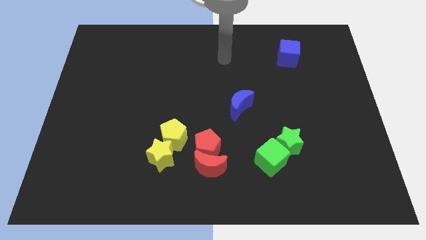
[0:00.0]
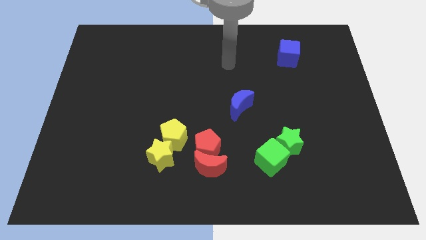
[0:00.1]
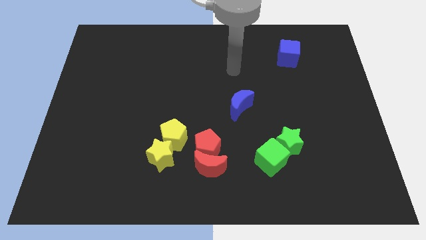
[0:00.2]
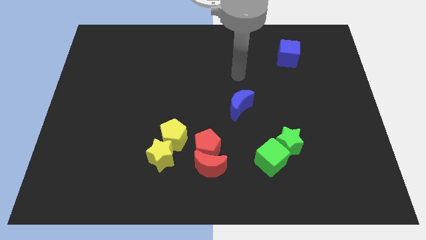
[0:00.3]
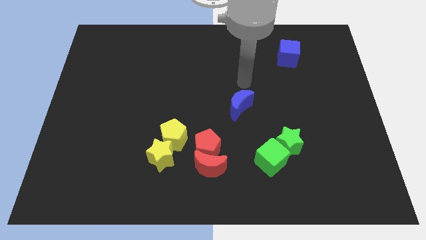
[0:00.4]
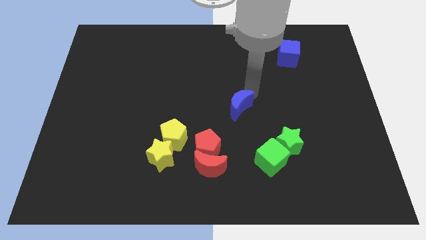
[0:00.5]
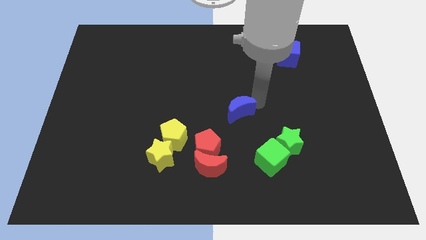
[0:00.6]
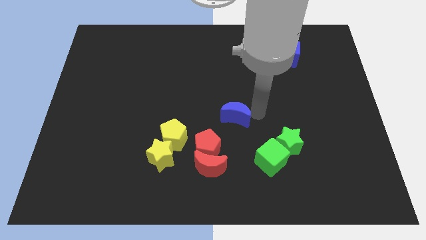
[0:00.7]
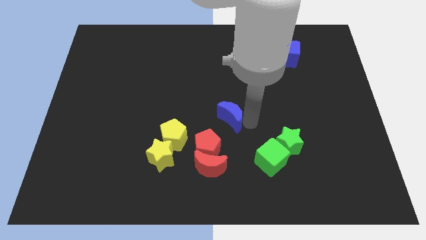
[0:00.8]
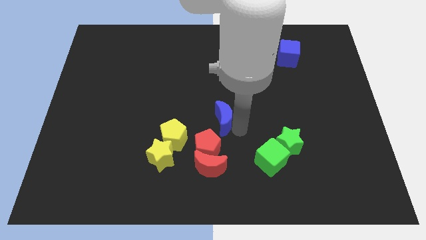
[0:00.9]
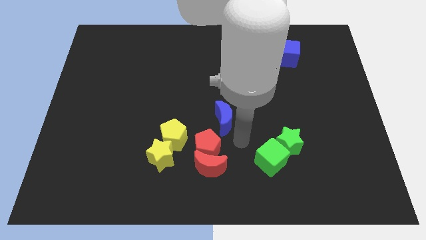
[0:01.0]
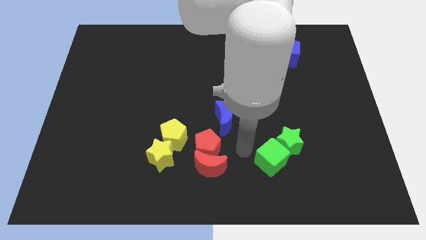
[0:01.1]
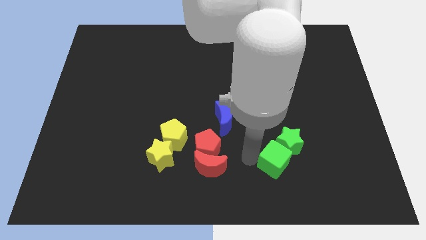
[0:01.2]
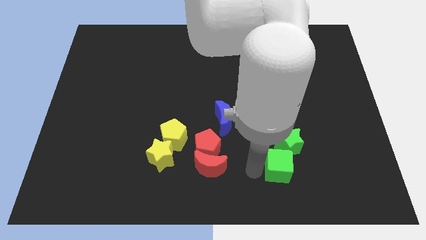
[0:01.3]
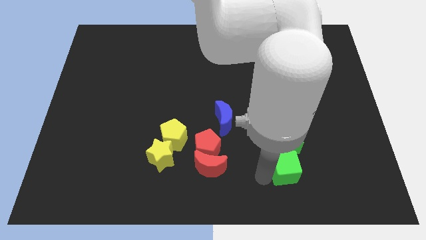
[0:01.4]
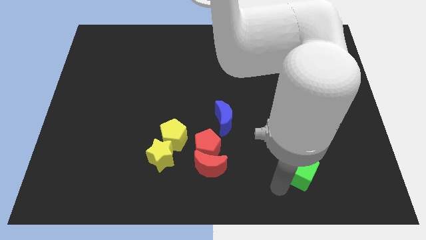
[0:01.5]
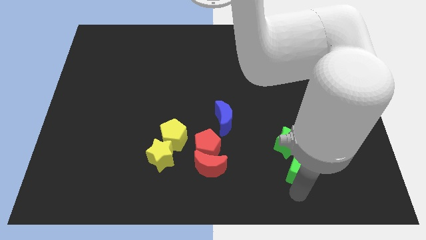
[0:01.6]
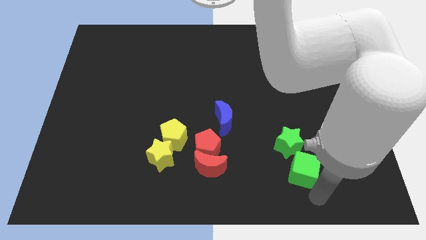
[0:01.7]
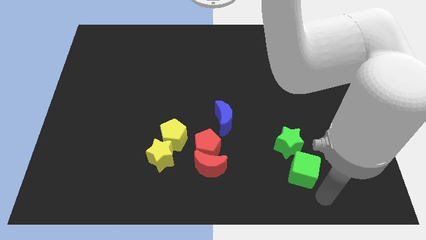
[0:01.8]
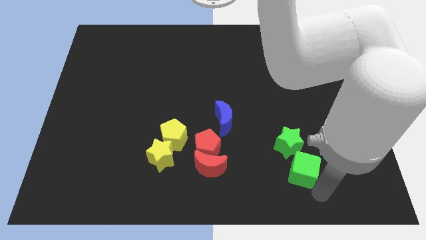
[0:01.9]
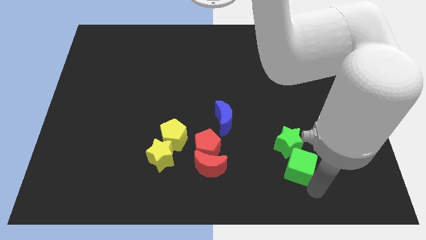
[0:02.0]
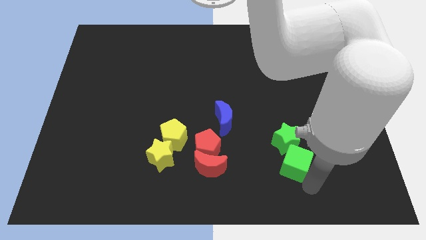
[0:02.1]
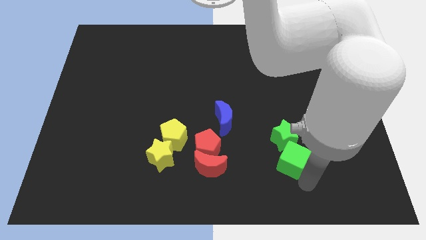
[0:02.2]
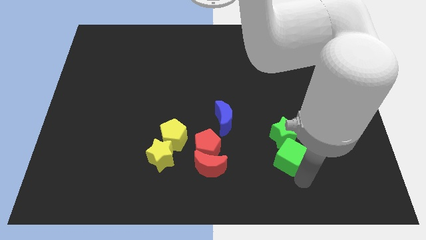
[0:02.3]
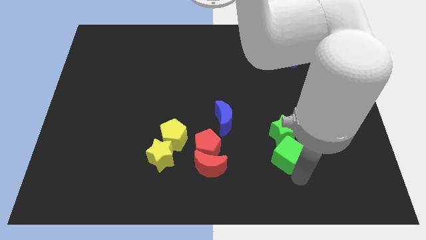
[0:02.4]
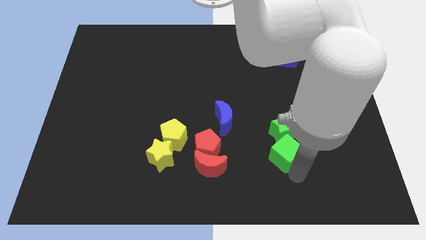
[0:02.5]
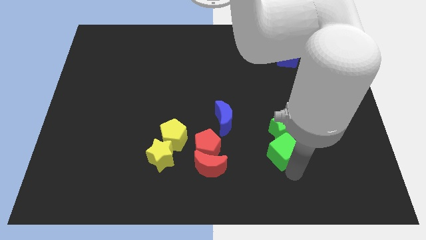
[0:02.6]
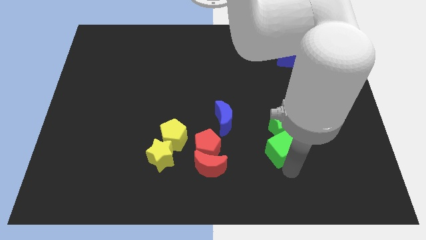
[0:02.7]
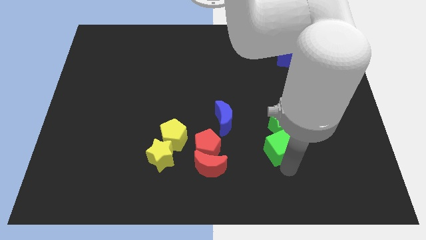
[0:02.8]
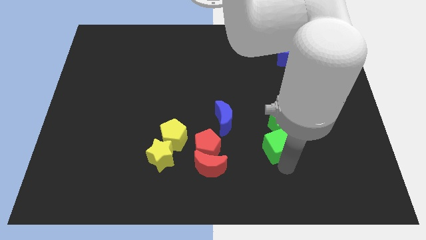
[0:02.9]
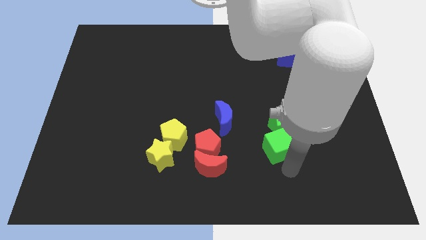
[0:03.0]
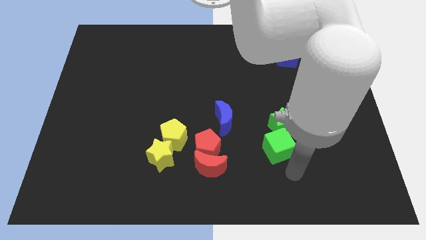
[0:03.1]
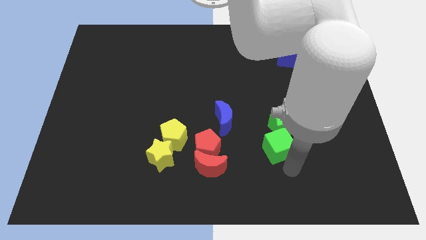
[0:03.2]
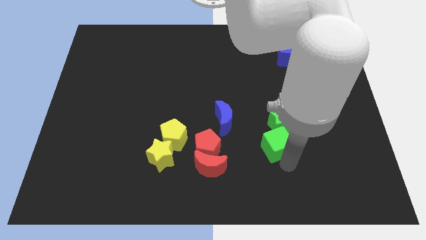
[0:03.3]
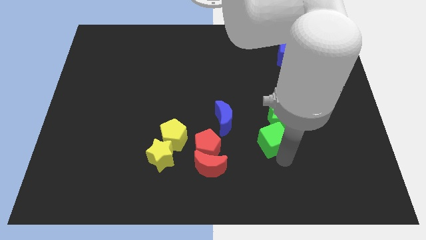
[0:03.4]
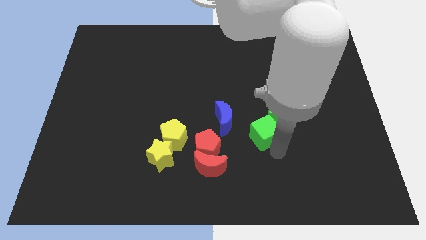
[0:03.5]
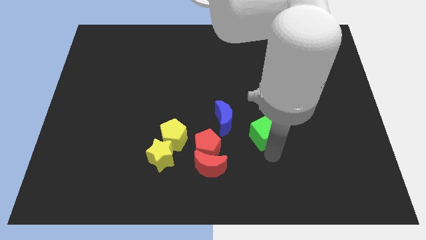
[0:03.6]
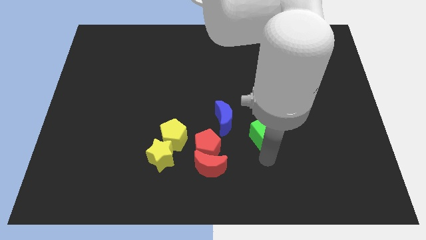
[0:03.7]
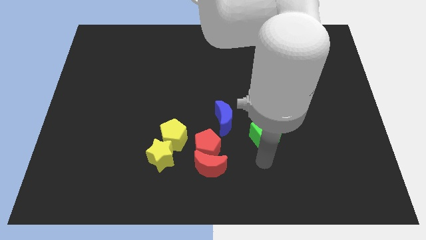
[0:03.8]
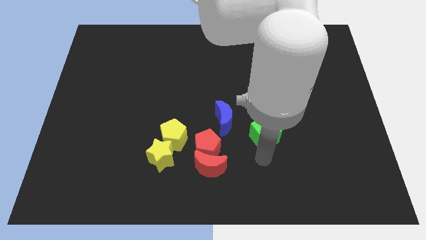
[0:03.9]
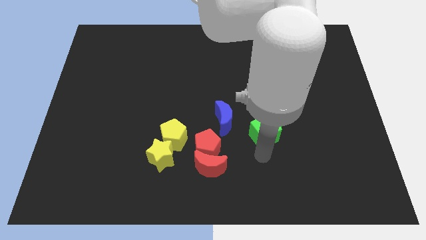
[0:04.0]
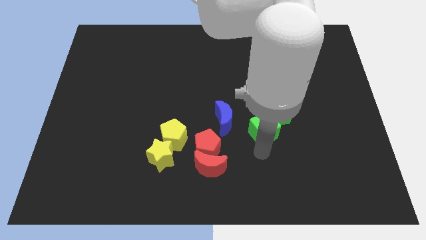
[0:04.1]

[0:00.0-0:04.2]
move the green cube up somewhat

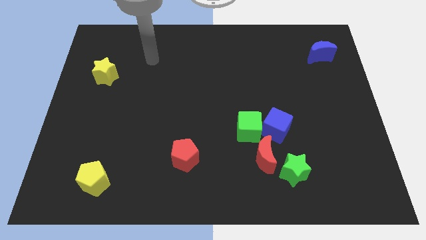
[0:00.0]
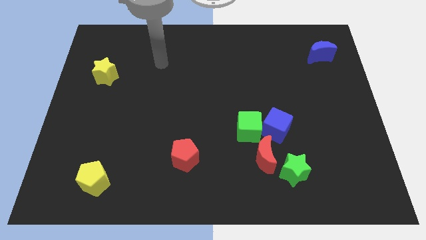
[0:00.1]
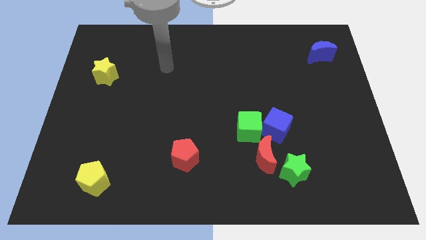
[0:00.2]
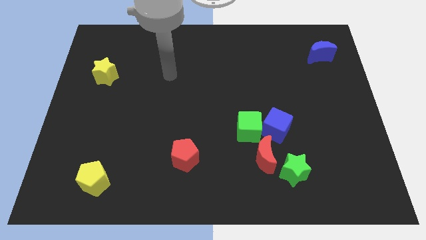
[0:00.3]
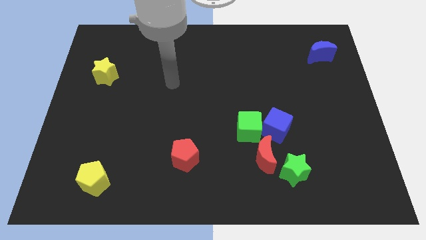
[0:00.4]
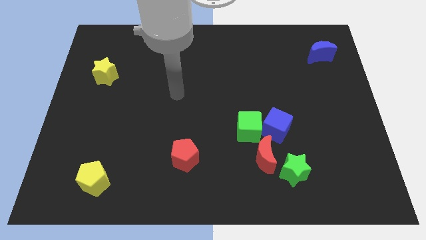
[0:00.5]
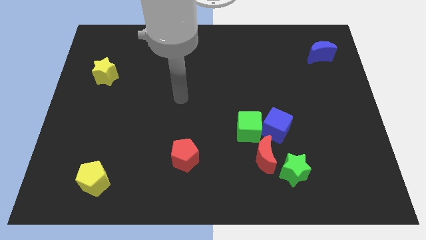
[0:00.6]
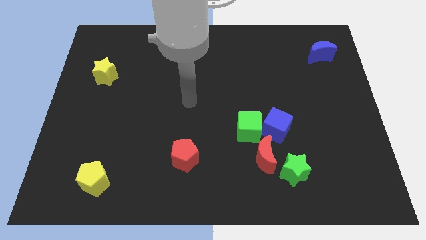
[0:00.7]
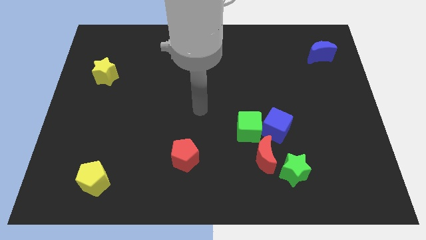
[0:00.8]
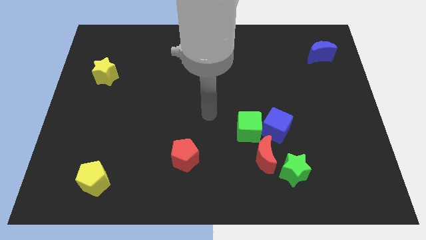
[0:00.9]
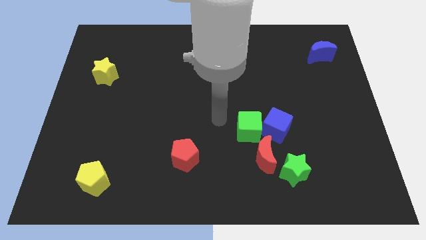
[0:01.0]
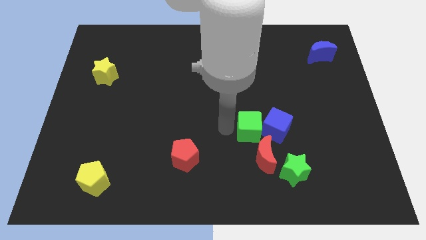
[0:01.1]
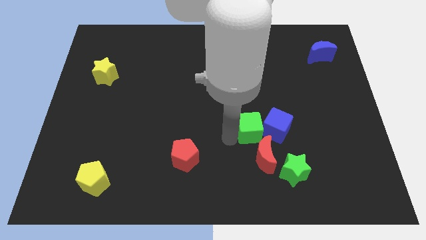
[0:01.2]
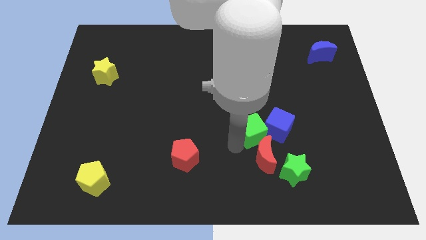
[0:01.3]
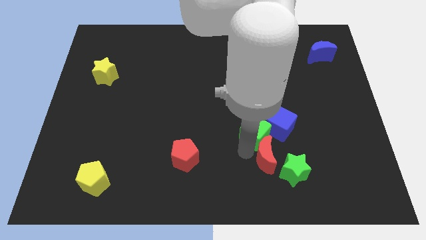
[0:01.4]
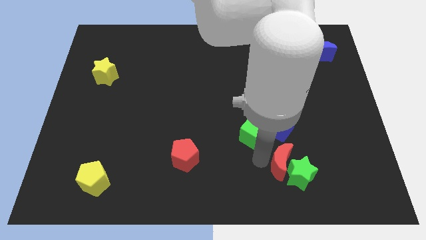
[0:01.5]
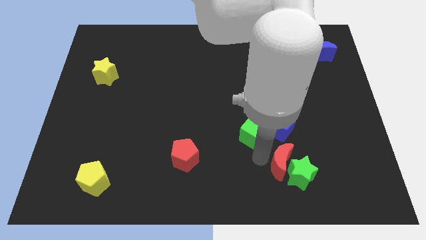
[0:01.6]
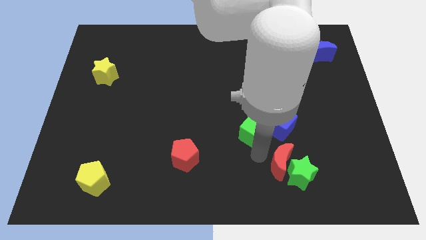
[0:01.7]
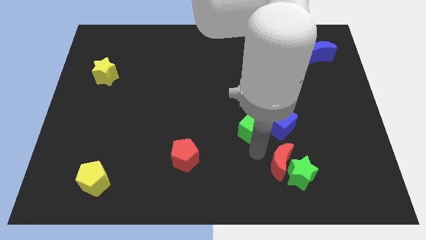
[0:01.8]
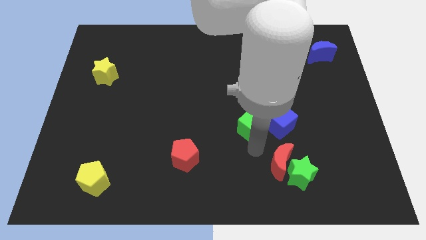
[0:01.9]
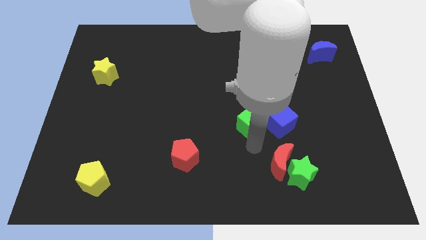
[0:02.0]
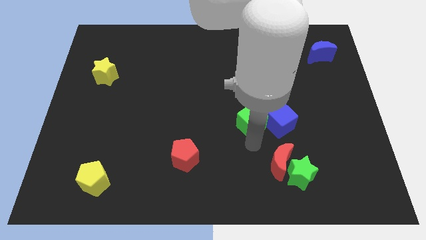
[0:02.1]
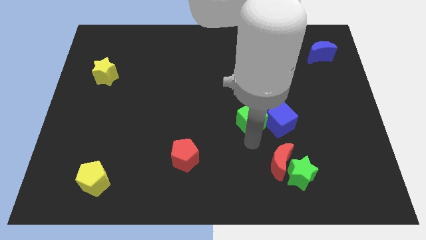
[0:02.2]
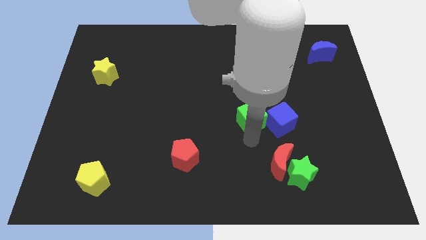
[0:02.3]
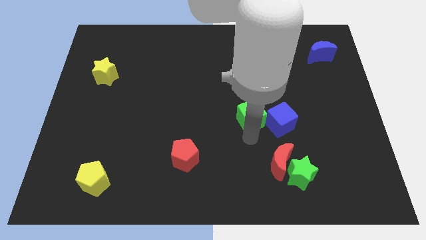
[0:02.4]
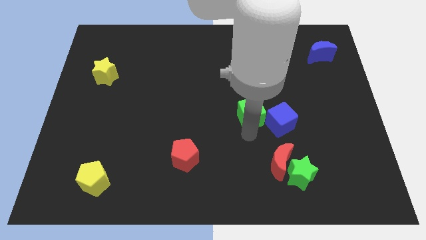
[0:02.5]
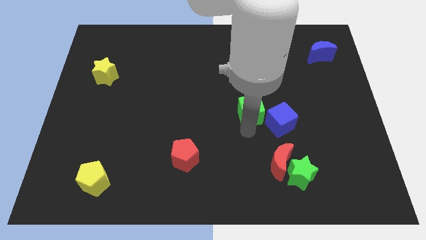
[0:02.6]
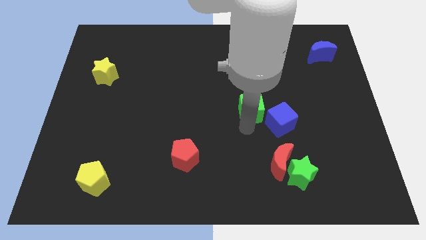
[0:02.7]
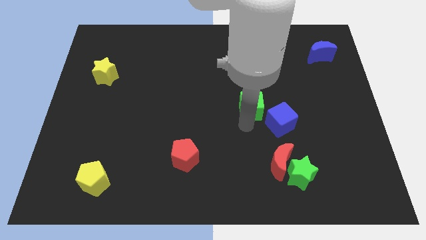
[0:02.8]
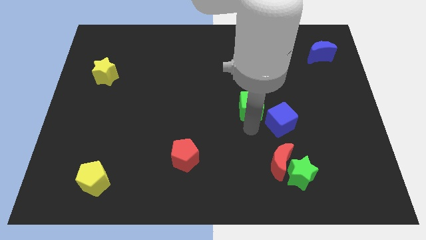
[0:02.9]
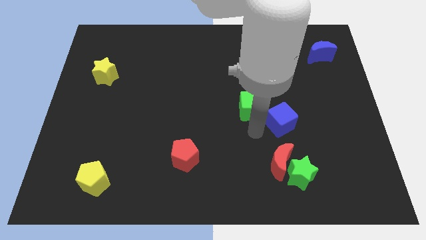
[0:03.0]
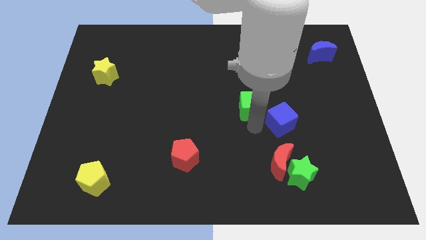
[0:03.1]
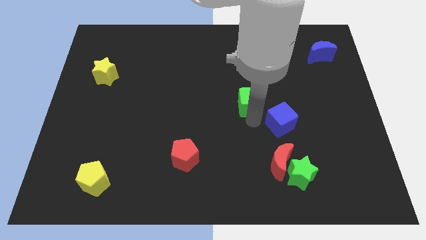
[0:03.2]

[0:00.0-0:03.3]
slide the green cube up somewhat

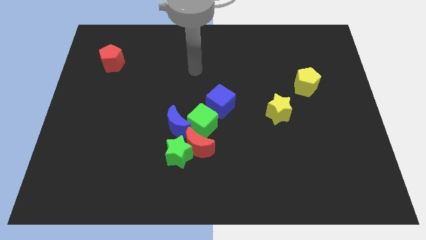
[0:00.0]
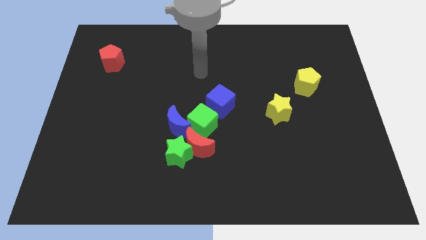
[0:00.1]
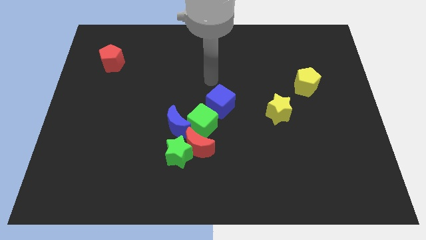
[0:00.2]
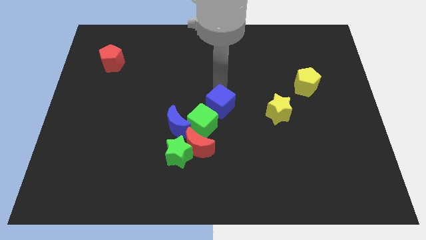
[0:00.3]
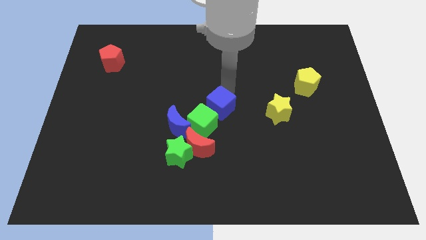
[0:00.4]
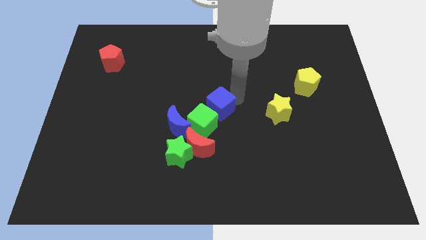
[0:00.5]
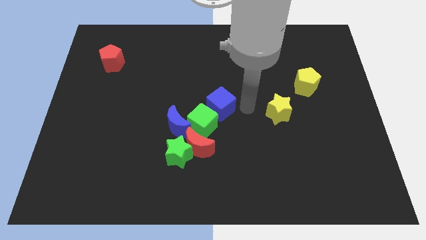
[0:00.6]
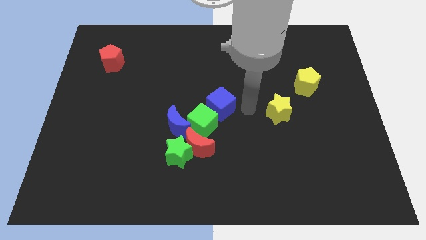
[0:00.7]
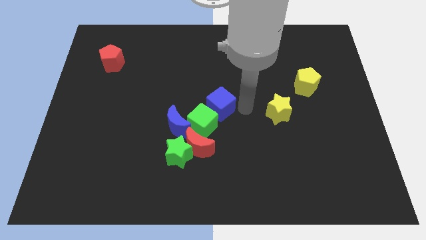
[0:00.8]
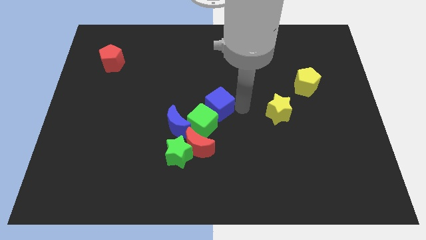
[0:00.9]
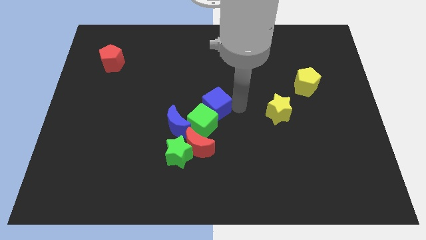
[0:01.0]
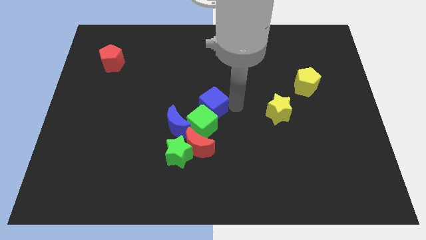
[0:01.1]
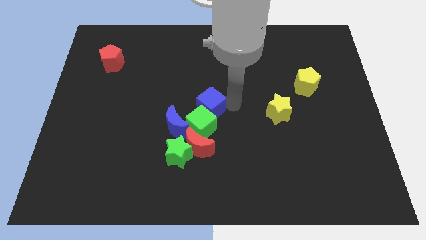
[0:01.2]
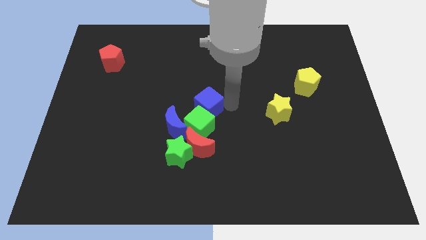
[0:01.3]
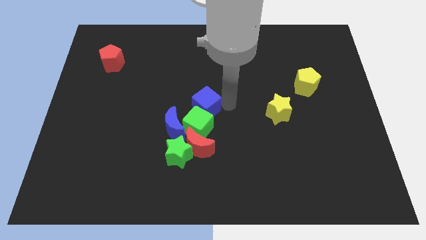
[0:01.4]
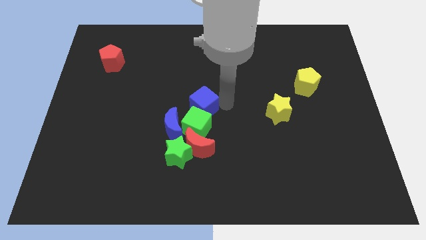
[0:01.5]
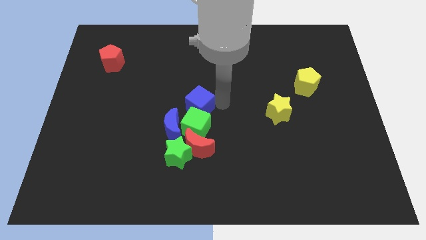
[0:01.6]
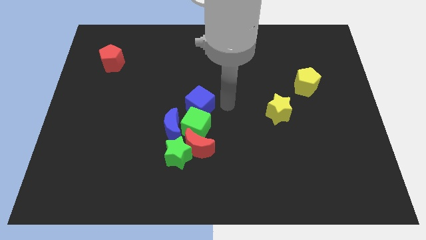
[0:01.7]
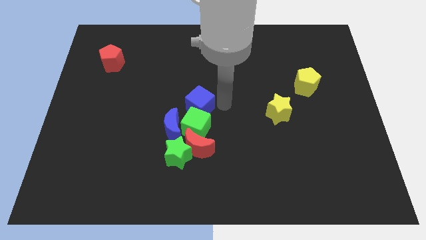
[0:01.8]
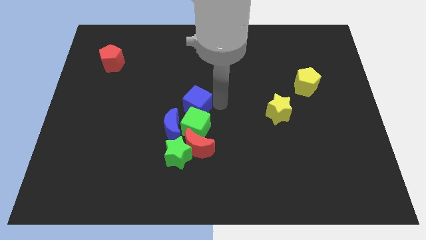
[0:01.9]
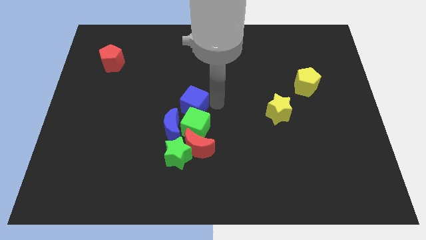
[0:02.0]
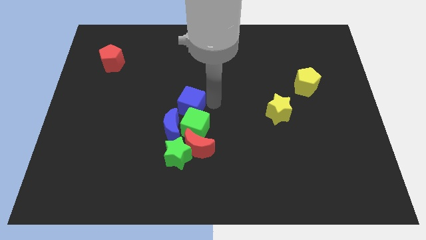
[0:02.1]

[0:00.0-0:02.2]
slightly slide the blue cube to the left
